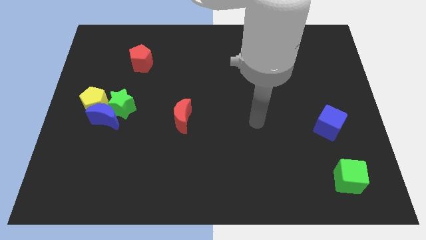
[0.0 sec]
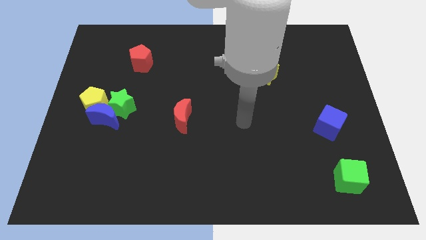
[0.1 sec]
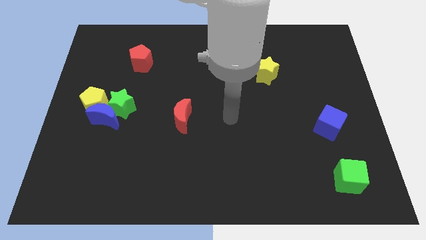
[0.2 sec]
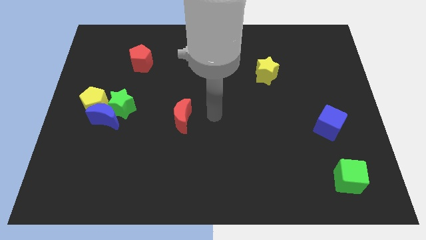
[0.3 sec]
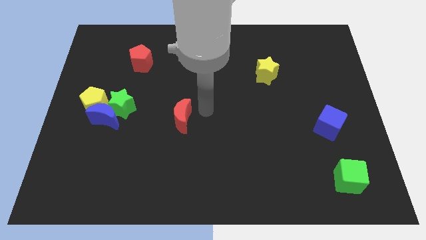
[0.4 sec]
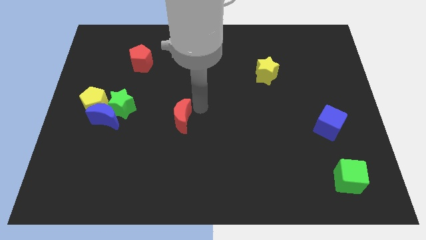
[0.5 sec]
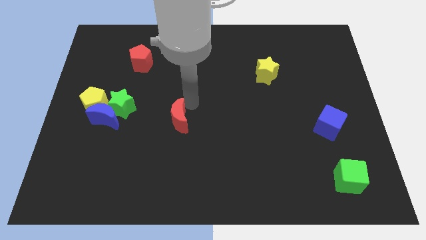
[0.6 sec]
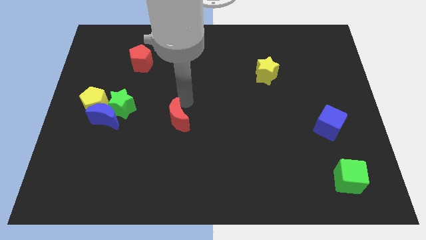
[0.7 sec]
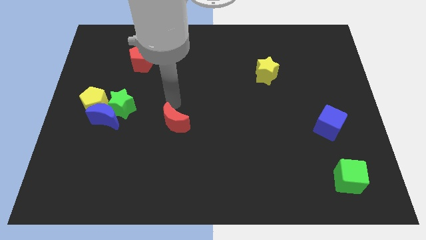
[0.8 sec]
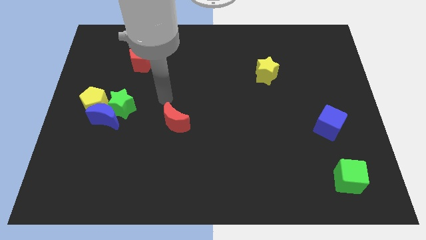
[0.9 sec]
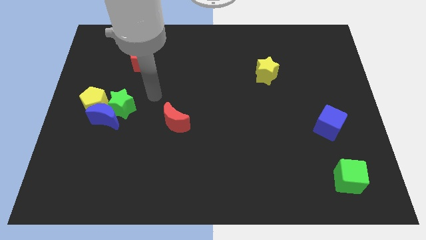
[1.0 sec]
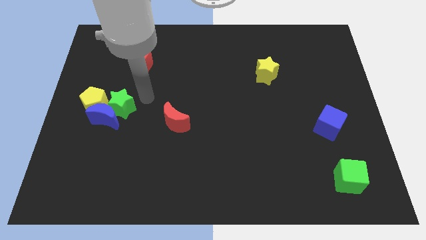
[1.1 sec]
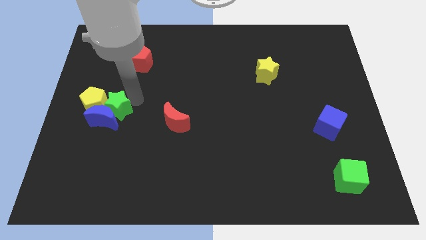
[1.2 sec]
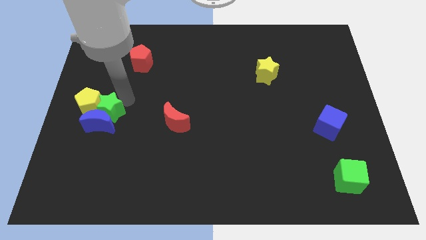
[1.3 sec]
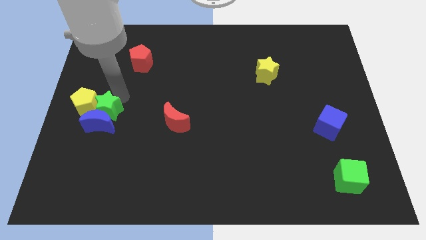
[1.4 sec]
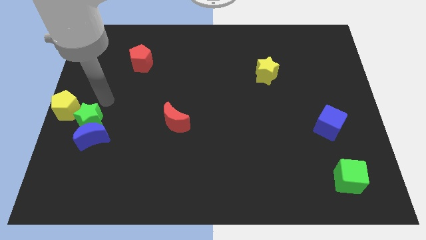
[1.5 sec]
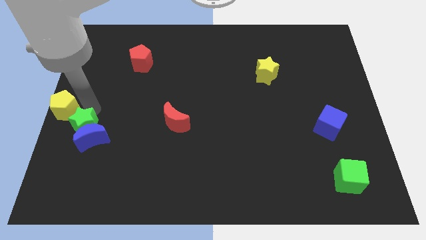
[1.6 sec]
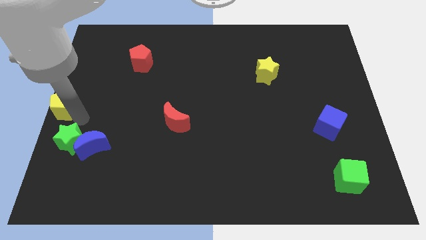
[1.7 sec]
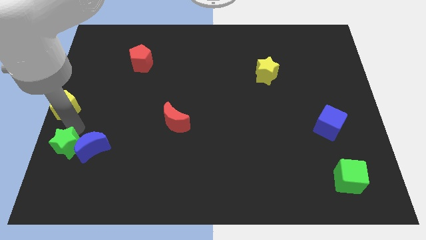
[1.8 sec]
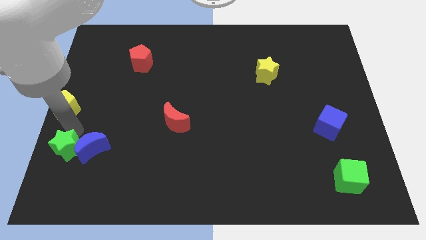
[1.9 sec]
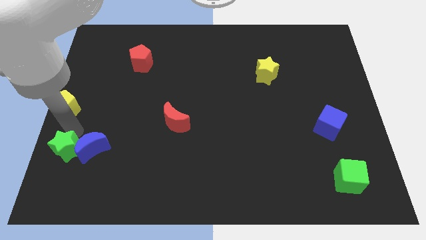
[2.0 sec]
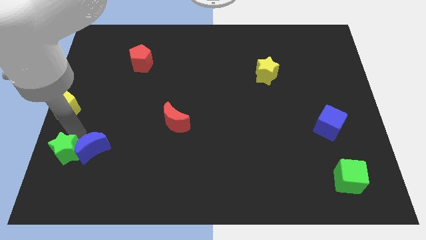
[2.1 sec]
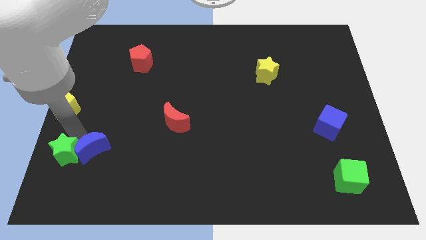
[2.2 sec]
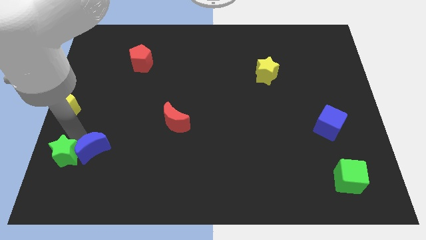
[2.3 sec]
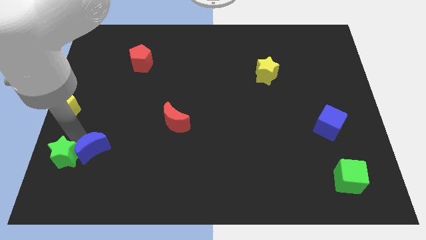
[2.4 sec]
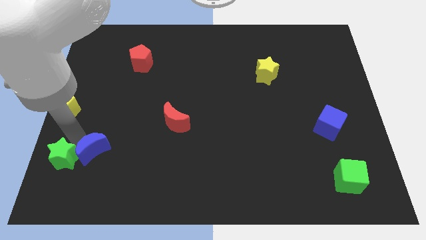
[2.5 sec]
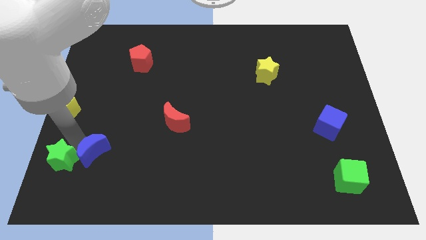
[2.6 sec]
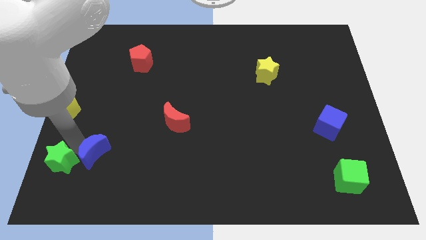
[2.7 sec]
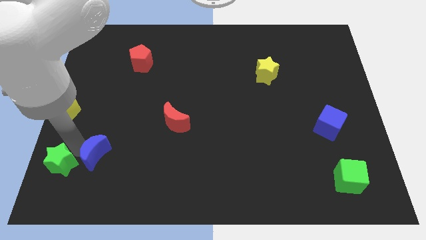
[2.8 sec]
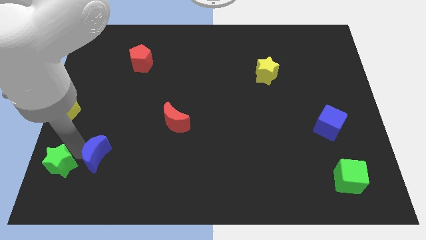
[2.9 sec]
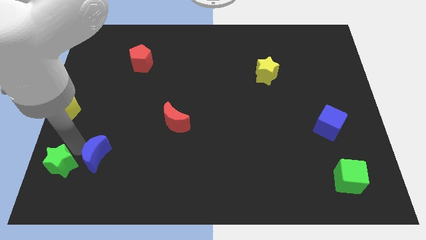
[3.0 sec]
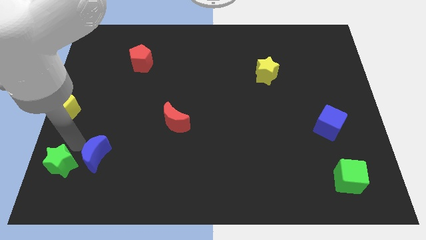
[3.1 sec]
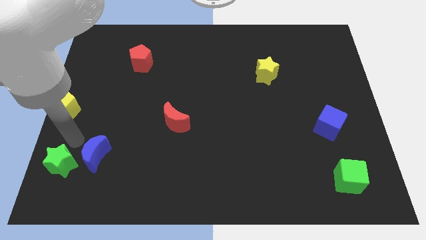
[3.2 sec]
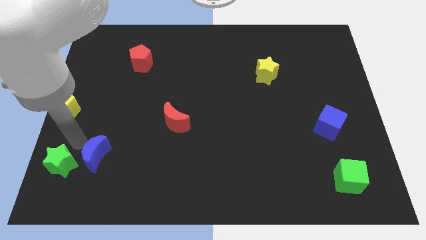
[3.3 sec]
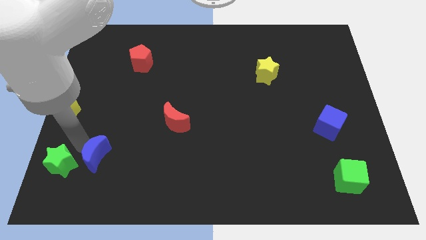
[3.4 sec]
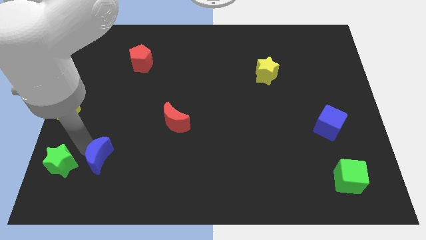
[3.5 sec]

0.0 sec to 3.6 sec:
pull the blue moon apart from the green star and yellow pentagon

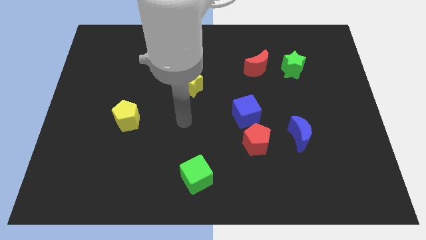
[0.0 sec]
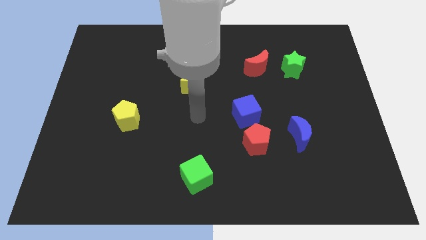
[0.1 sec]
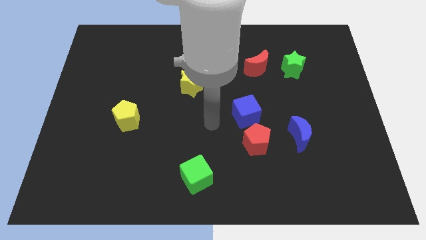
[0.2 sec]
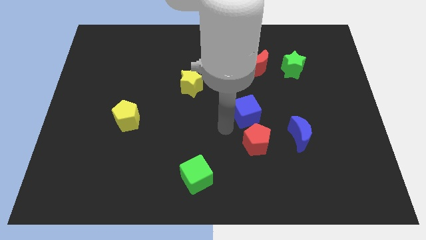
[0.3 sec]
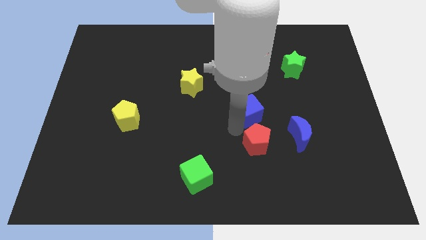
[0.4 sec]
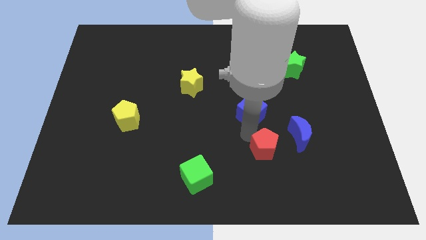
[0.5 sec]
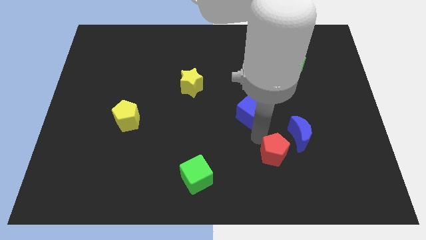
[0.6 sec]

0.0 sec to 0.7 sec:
pull the blue cube apart from the red pentagon

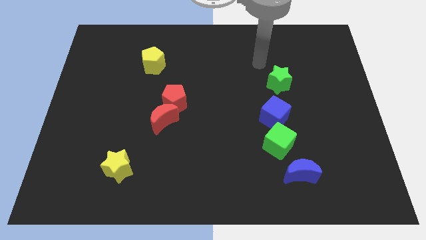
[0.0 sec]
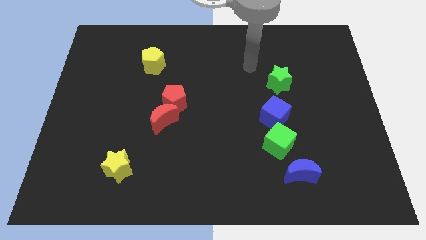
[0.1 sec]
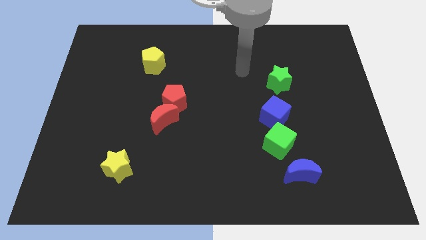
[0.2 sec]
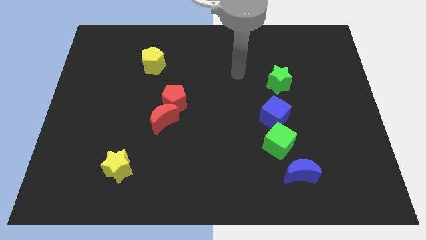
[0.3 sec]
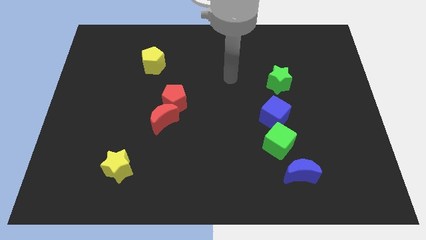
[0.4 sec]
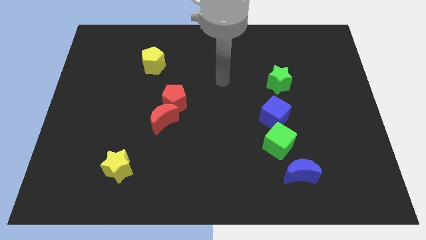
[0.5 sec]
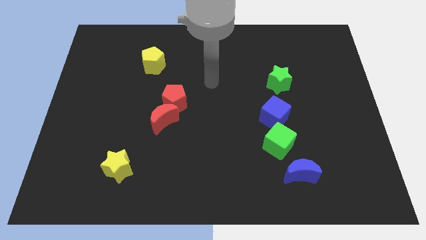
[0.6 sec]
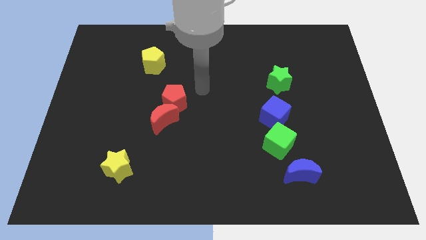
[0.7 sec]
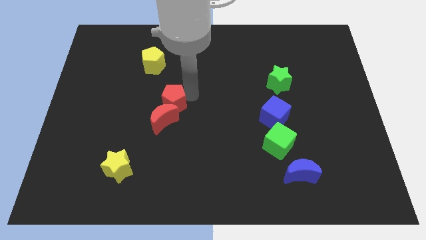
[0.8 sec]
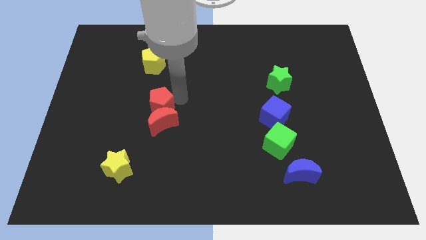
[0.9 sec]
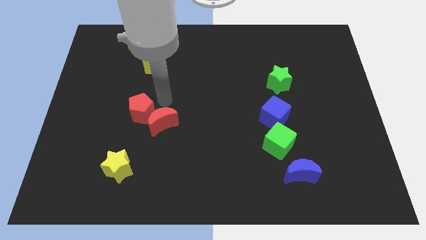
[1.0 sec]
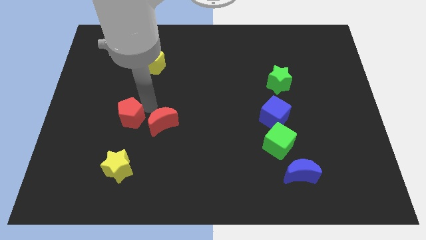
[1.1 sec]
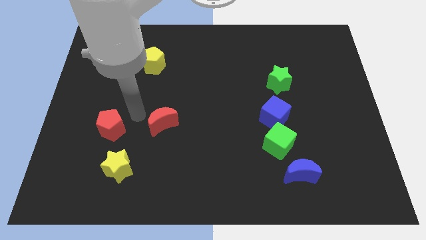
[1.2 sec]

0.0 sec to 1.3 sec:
separate the red moon from the red pentagon

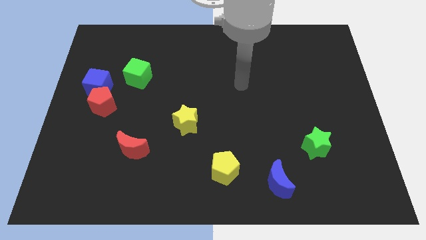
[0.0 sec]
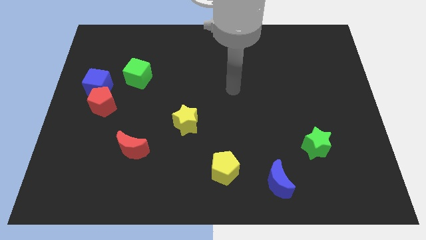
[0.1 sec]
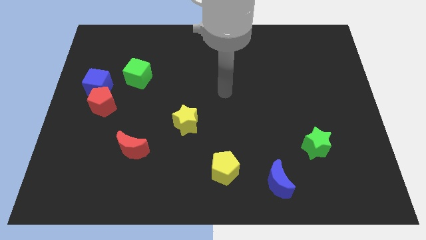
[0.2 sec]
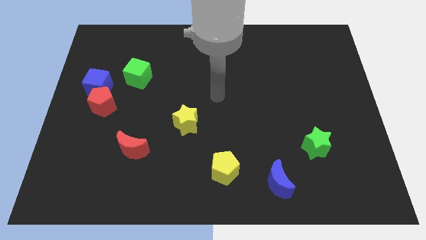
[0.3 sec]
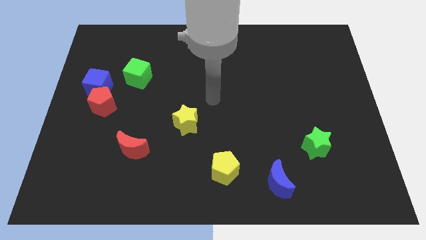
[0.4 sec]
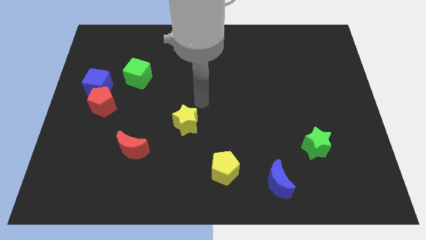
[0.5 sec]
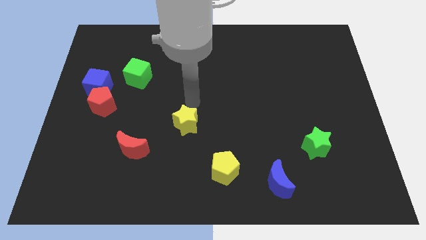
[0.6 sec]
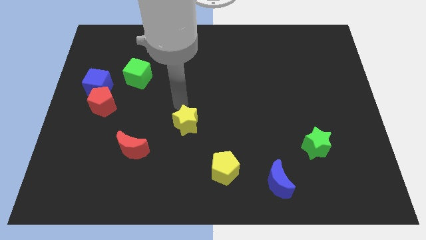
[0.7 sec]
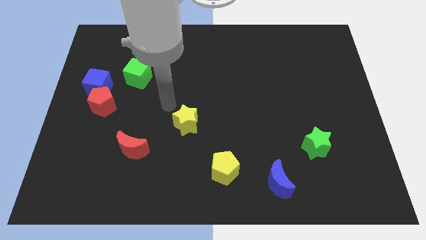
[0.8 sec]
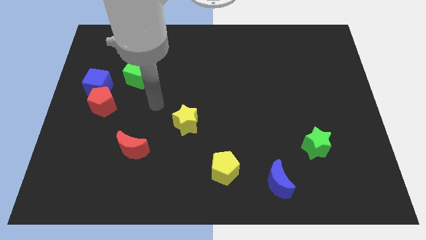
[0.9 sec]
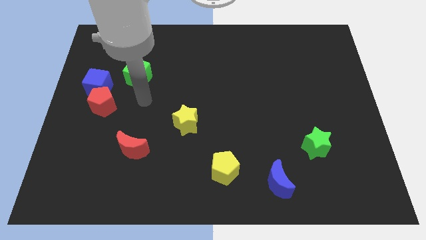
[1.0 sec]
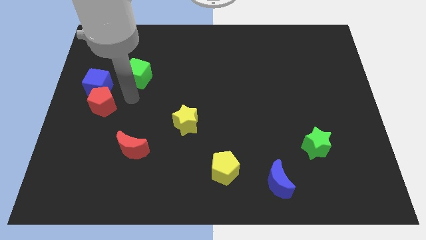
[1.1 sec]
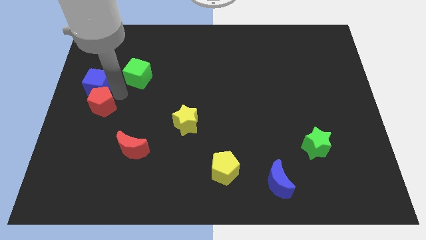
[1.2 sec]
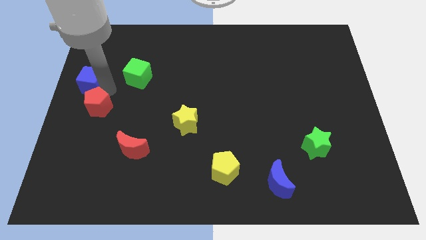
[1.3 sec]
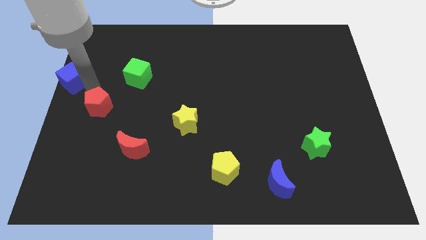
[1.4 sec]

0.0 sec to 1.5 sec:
pull the red pentagon apart from the blue cube

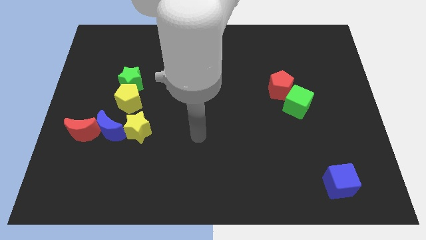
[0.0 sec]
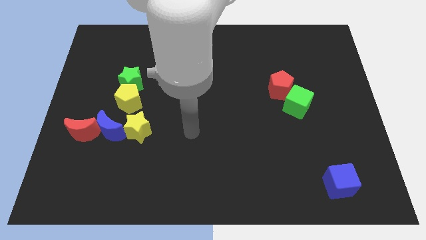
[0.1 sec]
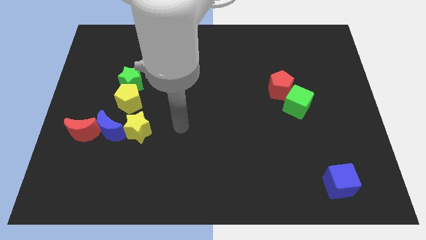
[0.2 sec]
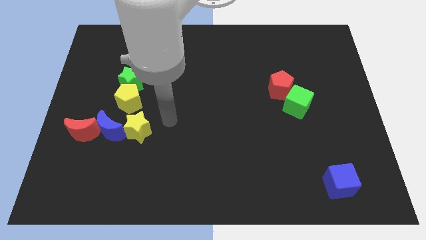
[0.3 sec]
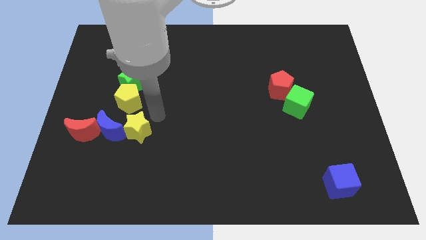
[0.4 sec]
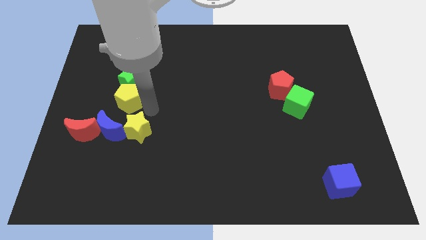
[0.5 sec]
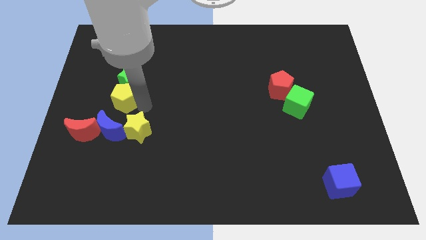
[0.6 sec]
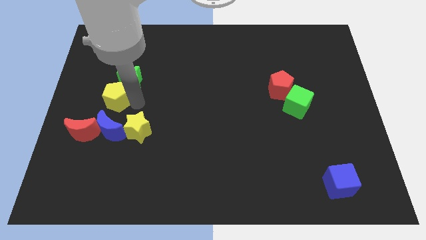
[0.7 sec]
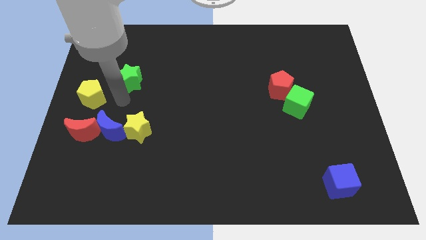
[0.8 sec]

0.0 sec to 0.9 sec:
move the green star away from the yellow pentagon

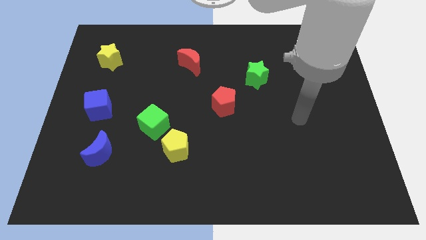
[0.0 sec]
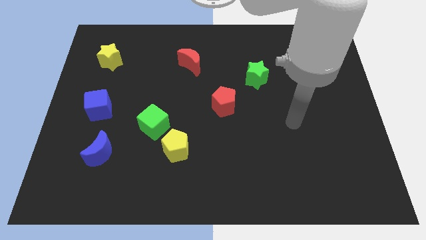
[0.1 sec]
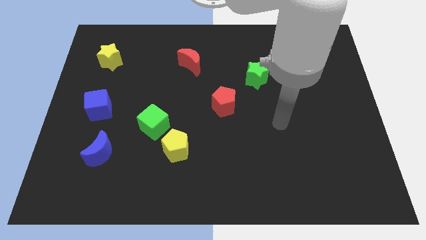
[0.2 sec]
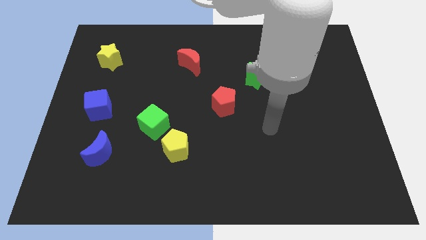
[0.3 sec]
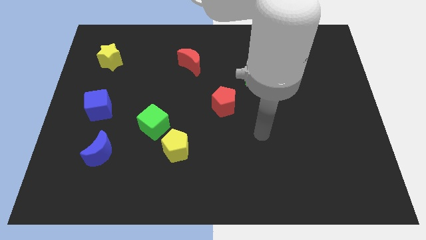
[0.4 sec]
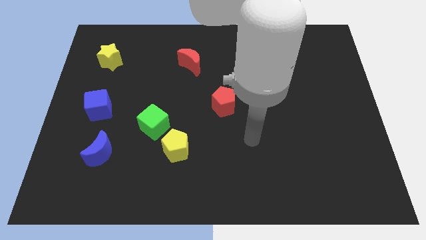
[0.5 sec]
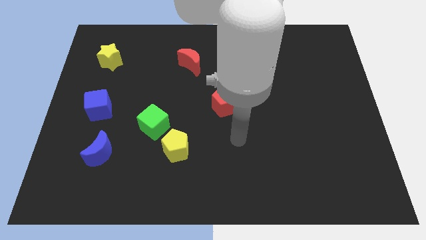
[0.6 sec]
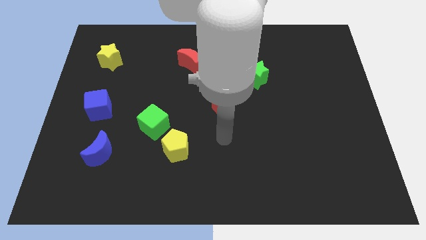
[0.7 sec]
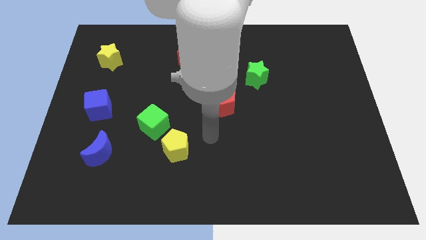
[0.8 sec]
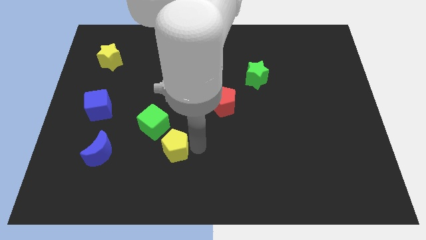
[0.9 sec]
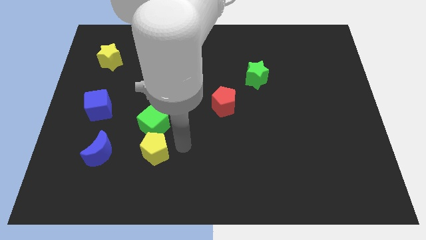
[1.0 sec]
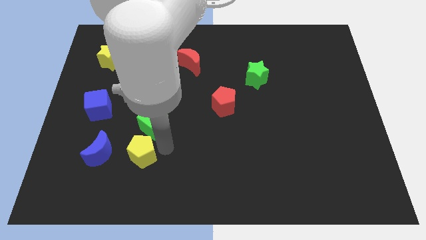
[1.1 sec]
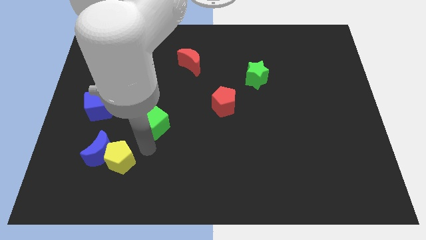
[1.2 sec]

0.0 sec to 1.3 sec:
move the green cube away from the yellow pentagon

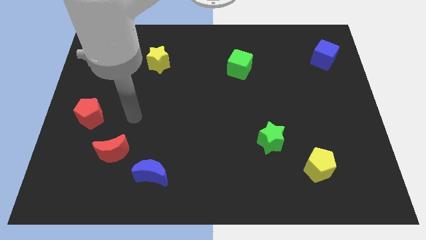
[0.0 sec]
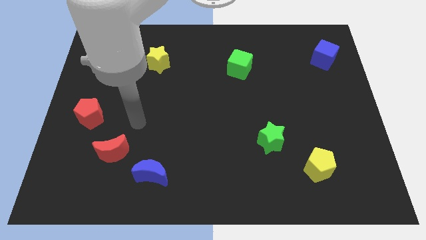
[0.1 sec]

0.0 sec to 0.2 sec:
pull the red moon apart from the blue moon
